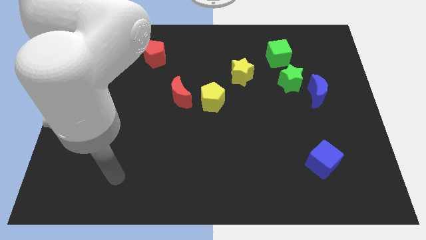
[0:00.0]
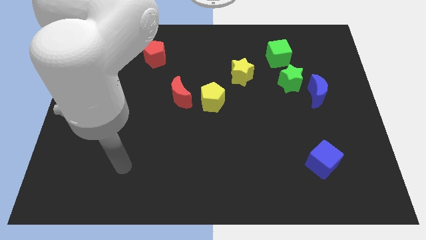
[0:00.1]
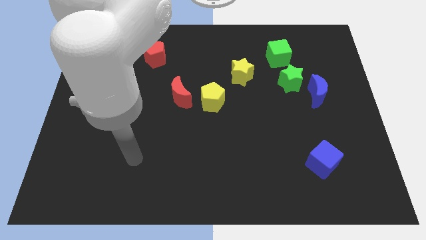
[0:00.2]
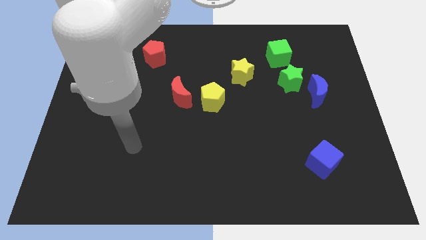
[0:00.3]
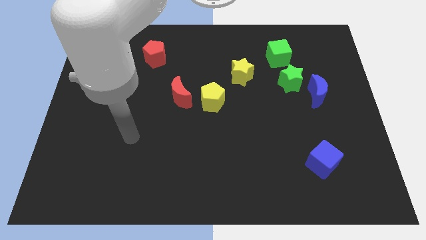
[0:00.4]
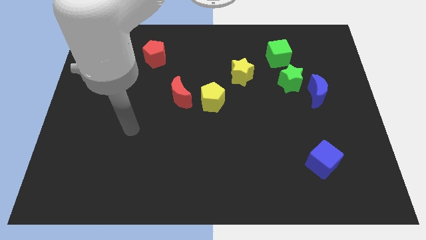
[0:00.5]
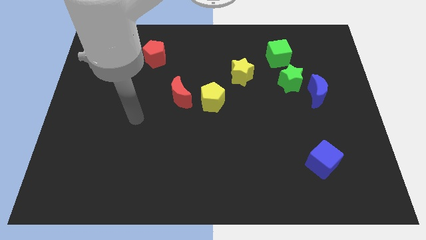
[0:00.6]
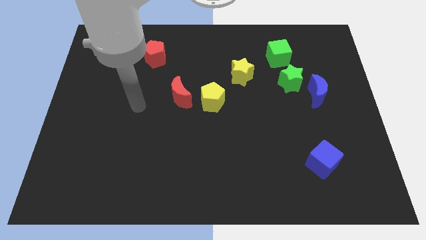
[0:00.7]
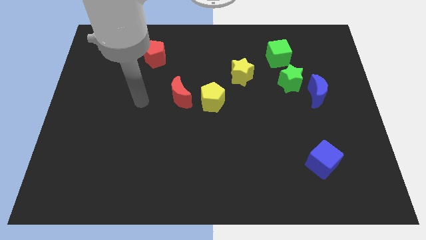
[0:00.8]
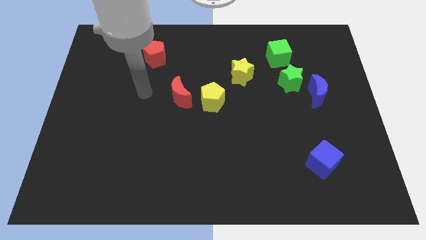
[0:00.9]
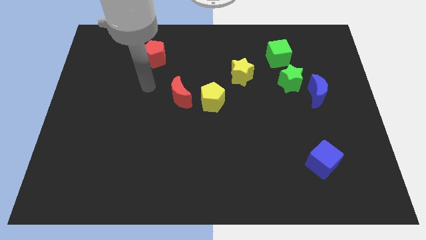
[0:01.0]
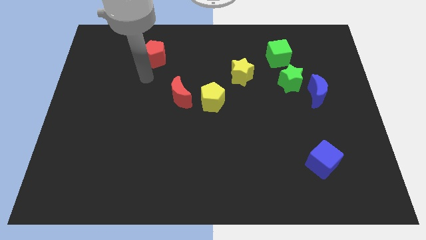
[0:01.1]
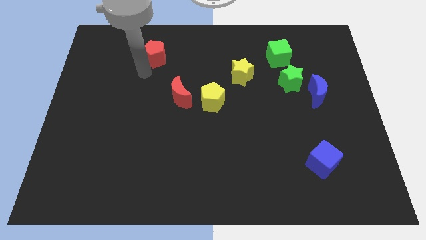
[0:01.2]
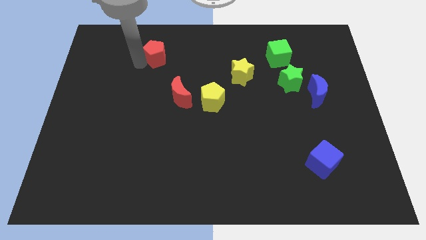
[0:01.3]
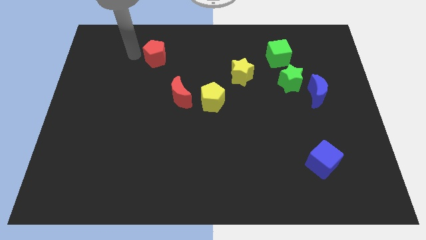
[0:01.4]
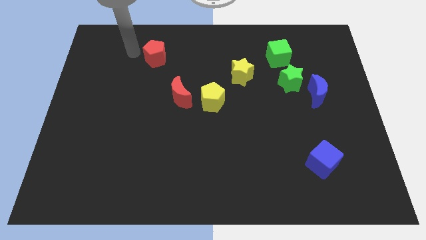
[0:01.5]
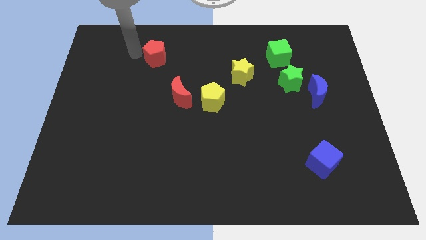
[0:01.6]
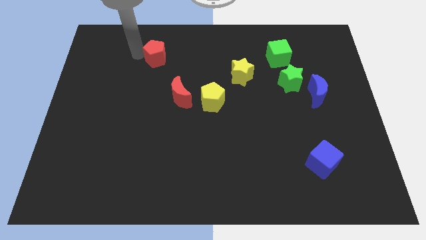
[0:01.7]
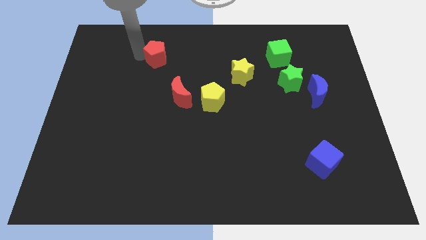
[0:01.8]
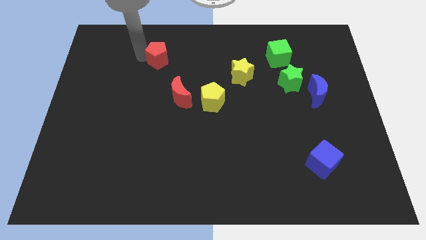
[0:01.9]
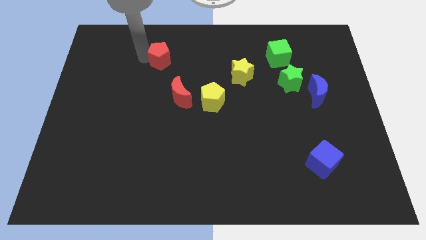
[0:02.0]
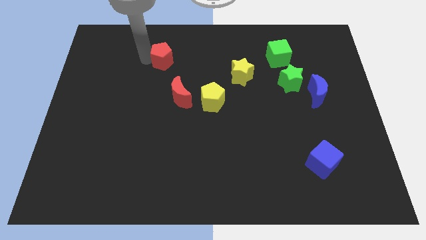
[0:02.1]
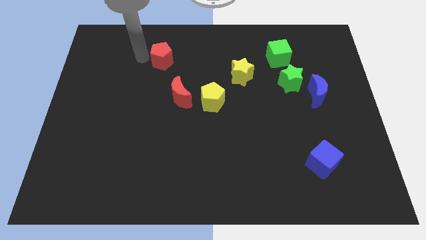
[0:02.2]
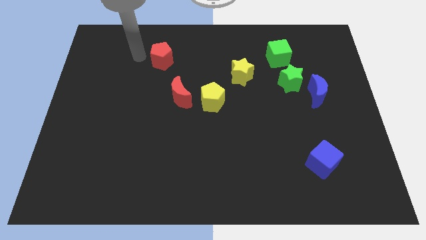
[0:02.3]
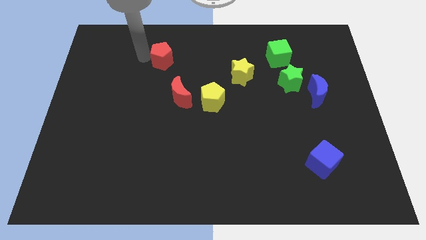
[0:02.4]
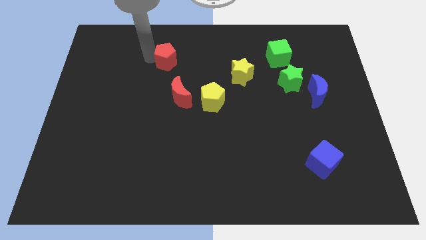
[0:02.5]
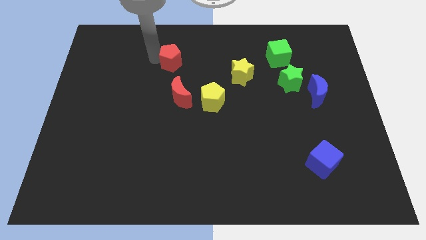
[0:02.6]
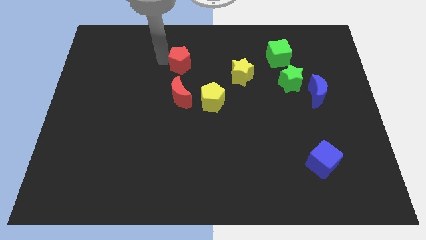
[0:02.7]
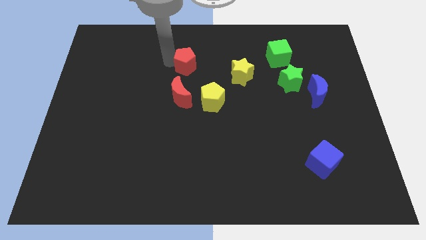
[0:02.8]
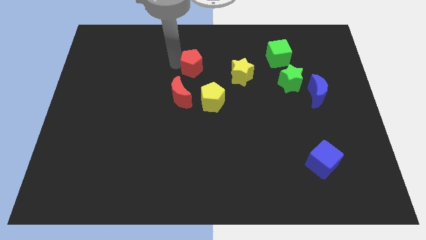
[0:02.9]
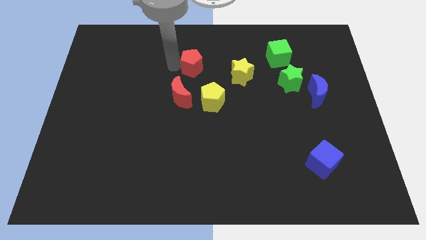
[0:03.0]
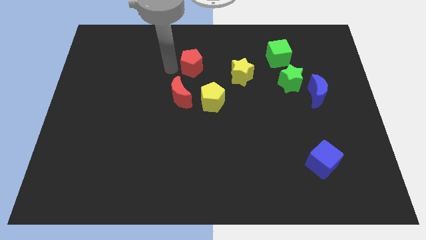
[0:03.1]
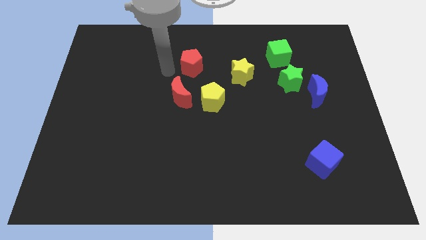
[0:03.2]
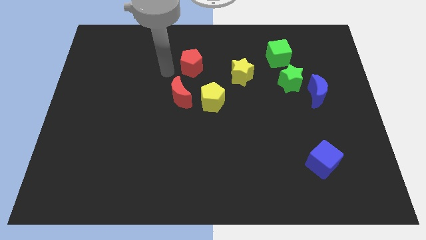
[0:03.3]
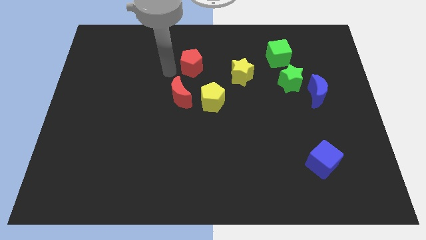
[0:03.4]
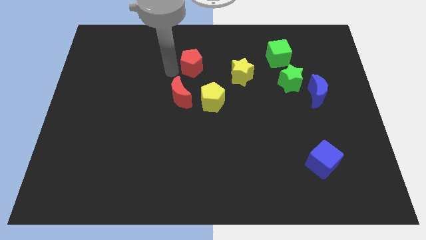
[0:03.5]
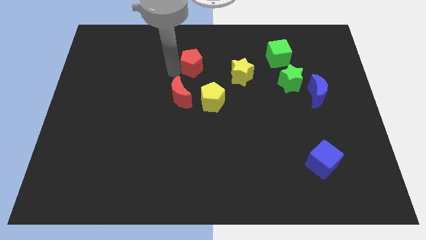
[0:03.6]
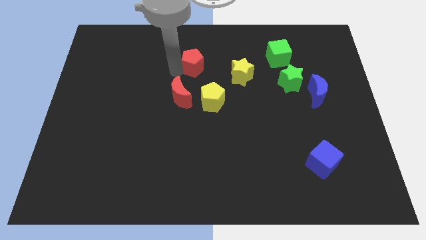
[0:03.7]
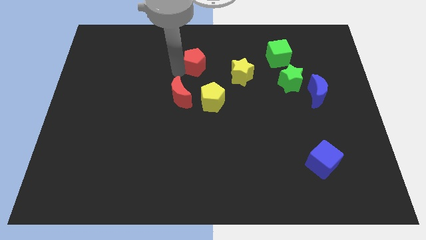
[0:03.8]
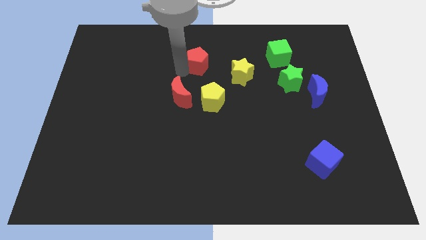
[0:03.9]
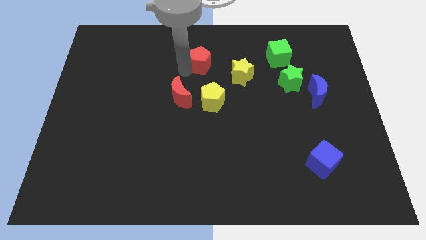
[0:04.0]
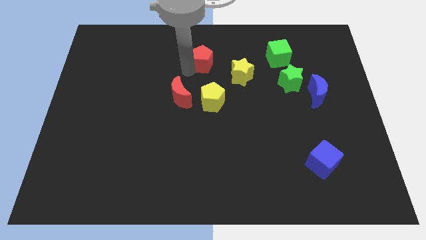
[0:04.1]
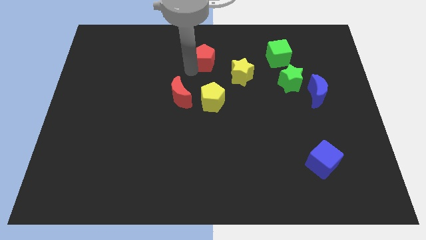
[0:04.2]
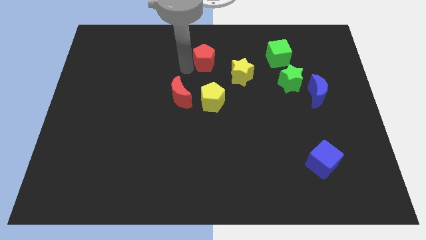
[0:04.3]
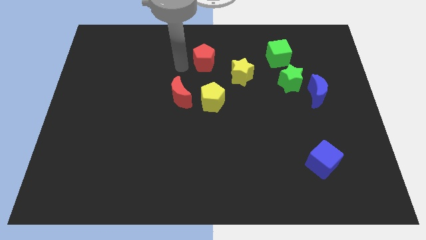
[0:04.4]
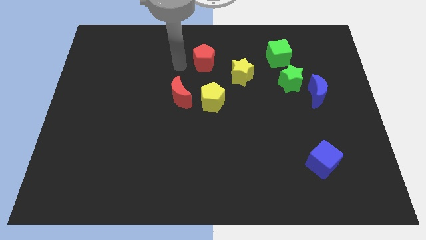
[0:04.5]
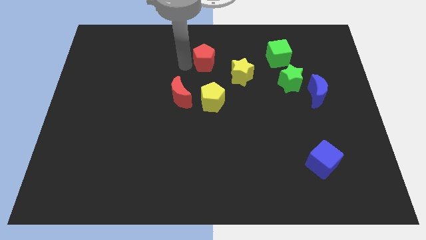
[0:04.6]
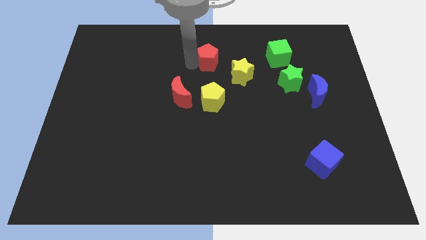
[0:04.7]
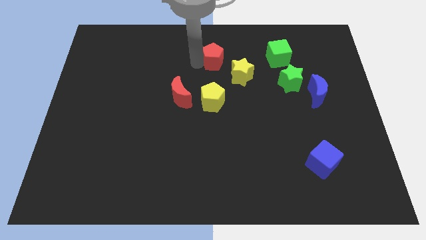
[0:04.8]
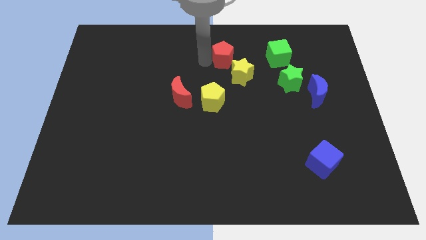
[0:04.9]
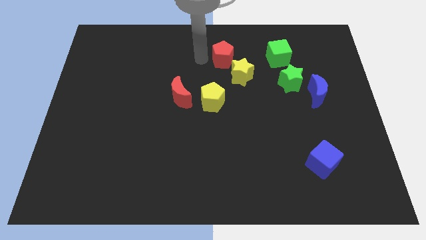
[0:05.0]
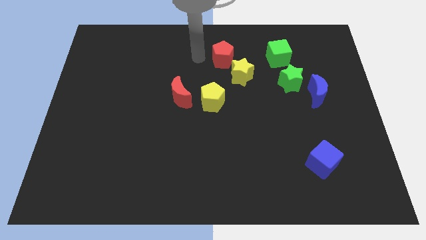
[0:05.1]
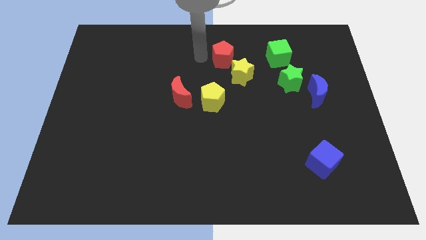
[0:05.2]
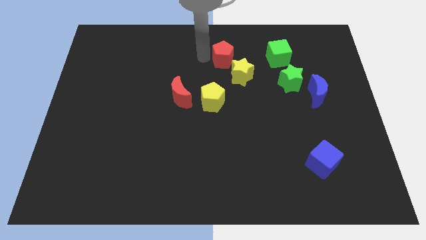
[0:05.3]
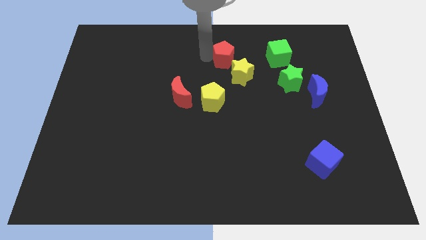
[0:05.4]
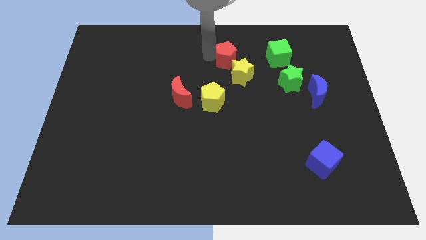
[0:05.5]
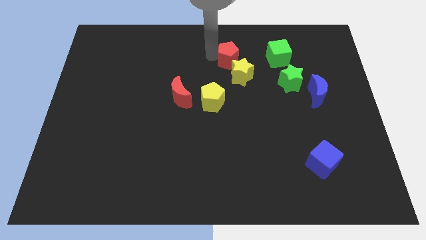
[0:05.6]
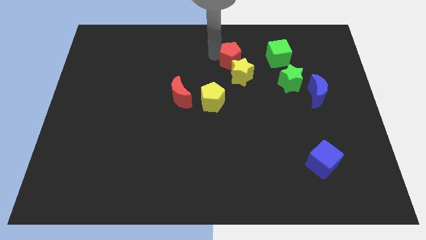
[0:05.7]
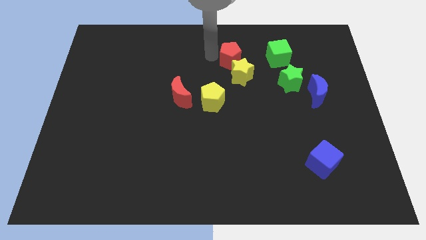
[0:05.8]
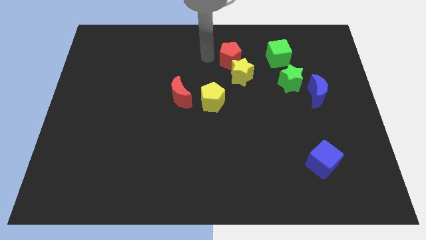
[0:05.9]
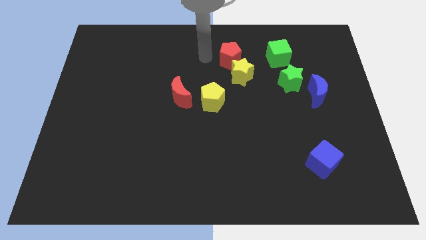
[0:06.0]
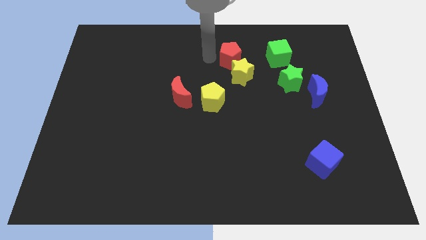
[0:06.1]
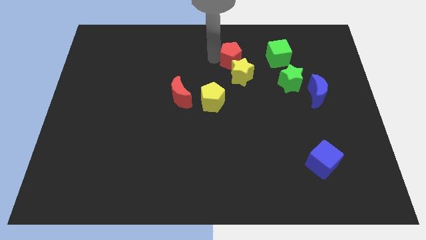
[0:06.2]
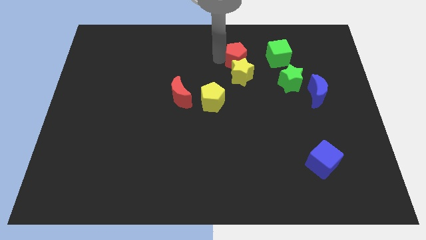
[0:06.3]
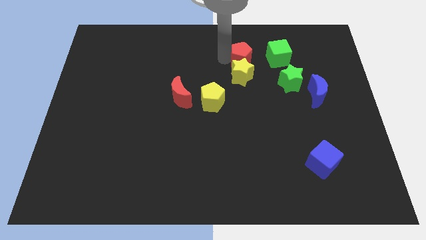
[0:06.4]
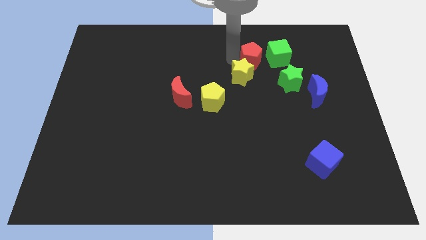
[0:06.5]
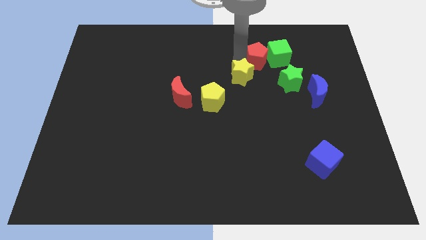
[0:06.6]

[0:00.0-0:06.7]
slide the red pentagon towards the green cube

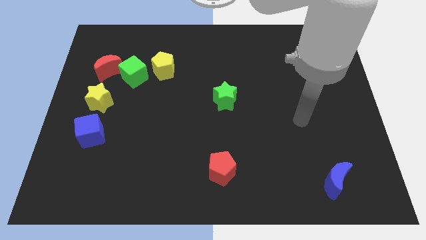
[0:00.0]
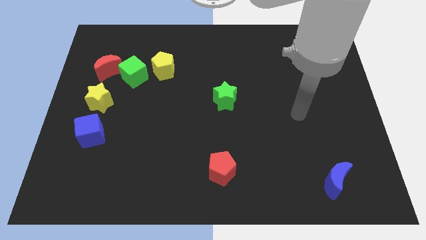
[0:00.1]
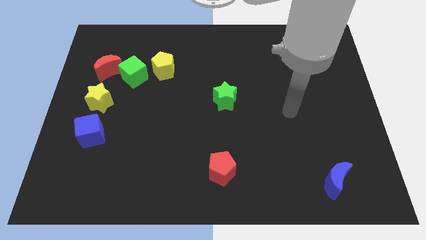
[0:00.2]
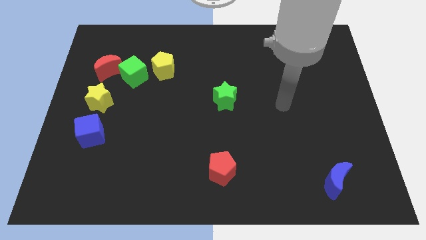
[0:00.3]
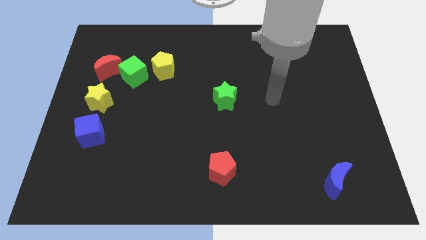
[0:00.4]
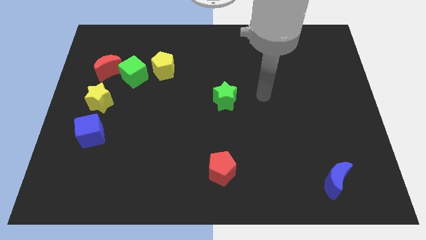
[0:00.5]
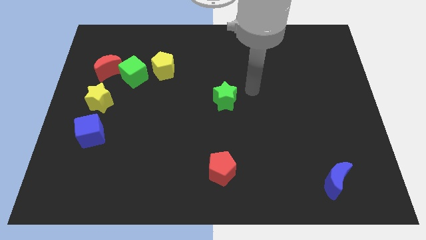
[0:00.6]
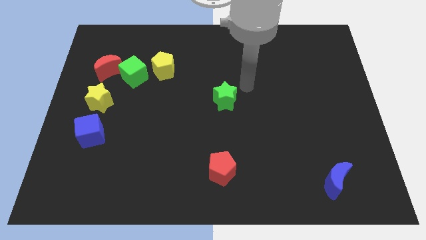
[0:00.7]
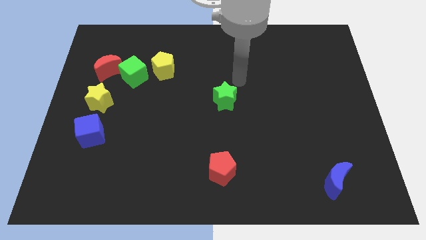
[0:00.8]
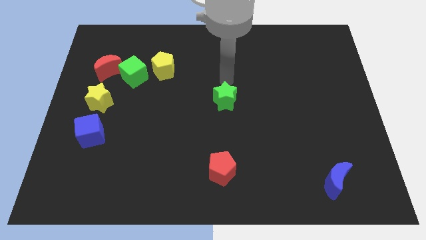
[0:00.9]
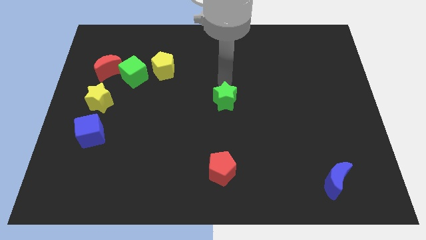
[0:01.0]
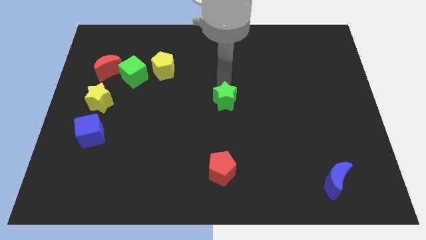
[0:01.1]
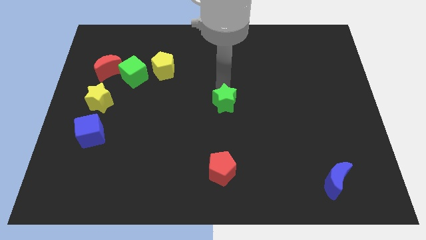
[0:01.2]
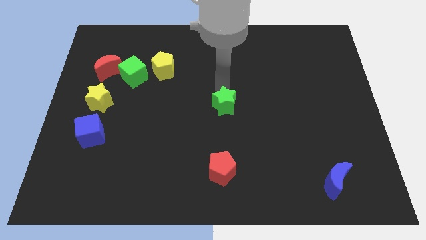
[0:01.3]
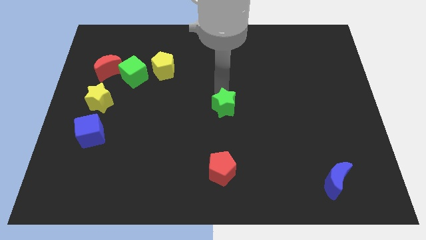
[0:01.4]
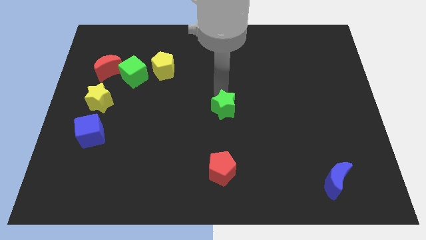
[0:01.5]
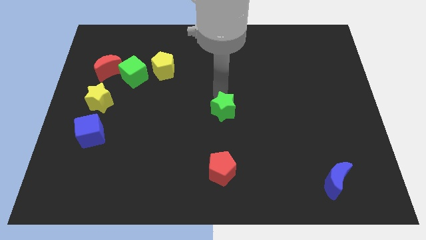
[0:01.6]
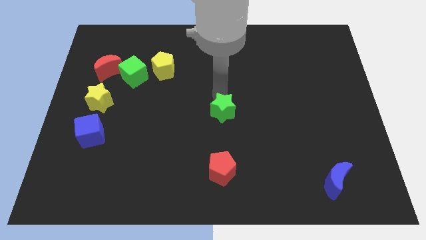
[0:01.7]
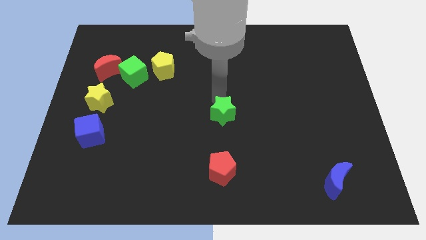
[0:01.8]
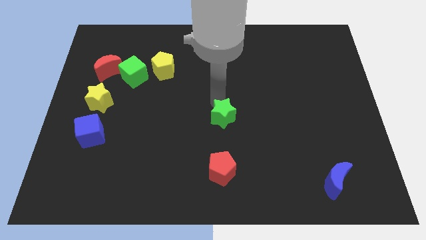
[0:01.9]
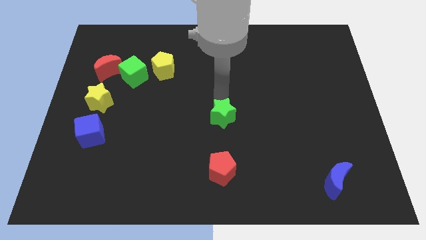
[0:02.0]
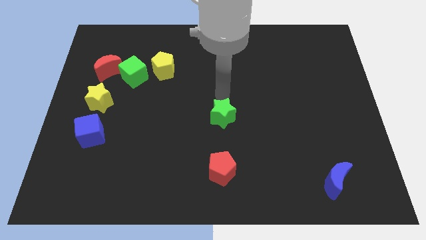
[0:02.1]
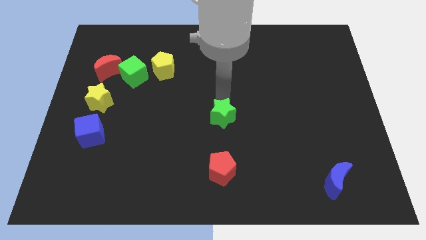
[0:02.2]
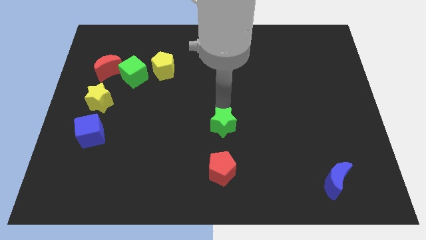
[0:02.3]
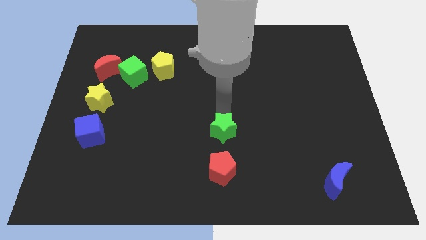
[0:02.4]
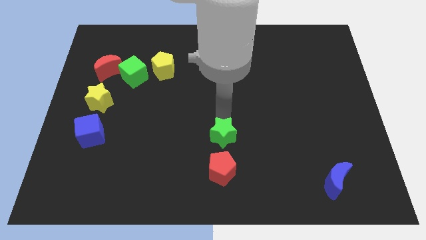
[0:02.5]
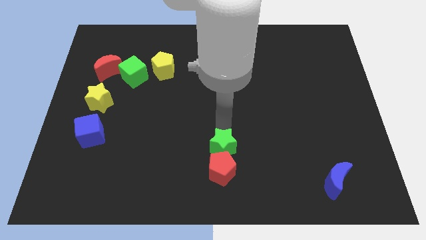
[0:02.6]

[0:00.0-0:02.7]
put the green star to the red pentagon
